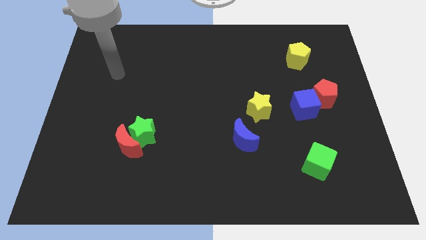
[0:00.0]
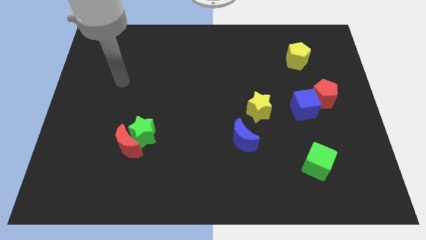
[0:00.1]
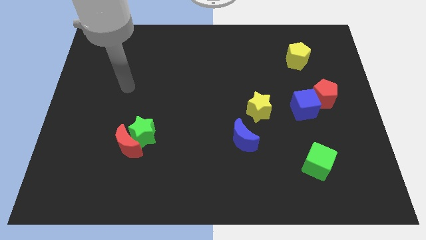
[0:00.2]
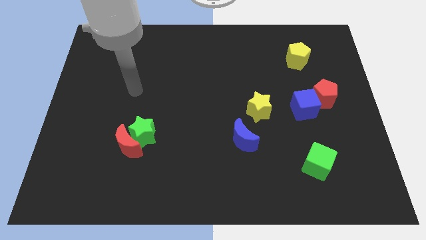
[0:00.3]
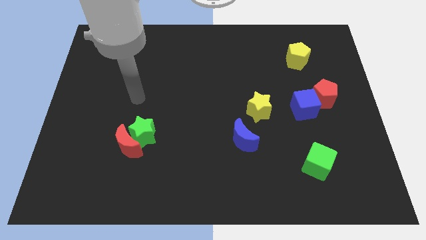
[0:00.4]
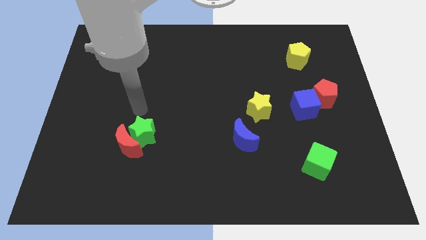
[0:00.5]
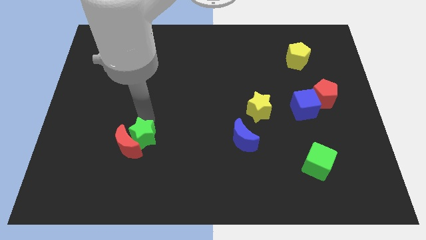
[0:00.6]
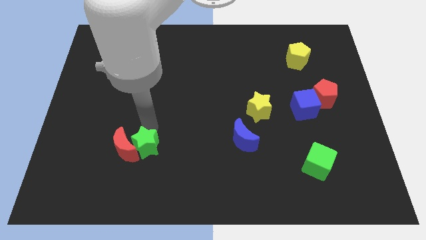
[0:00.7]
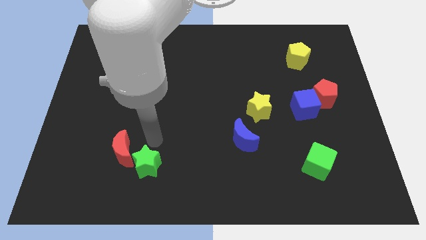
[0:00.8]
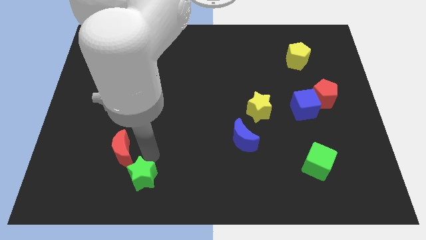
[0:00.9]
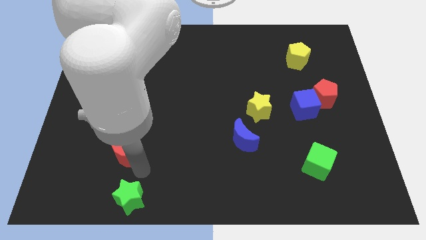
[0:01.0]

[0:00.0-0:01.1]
separate the red moon from the green star

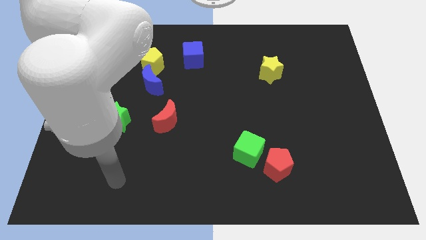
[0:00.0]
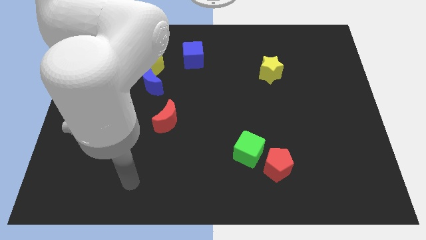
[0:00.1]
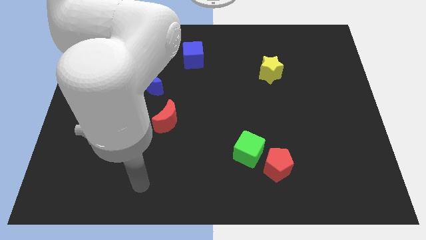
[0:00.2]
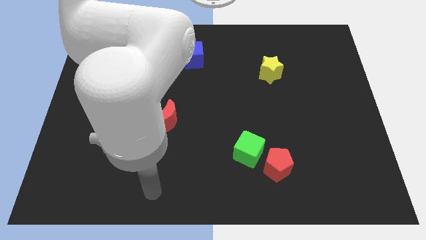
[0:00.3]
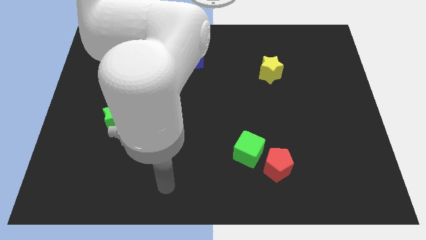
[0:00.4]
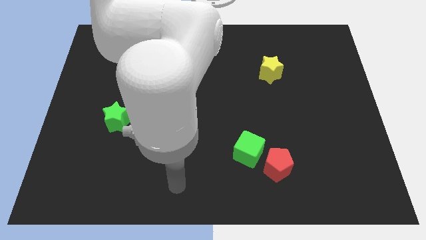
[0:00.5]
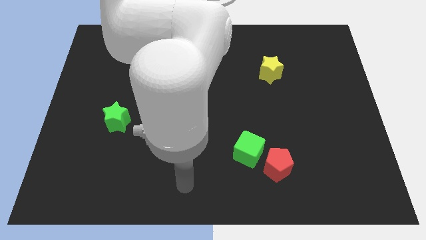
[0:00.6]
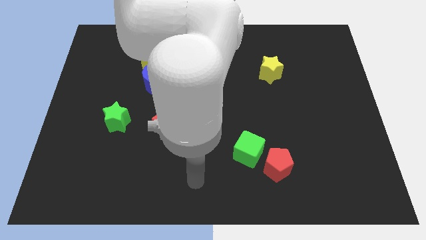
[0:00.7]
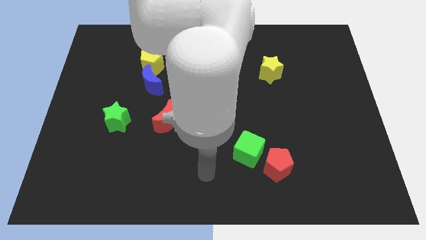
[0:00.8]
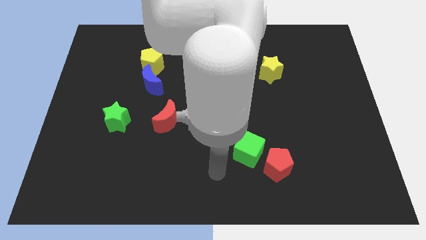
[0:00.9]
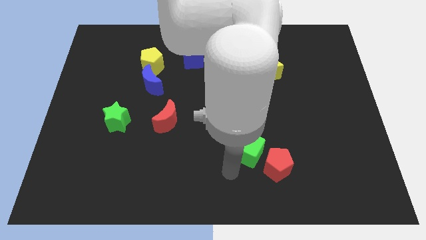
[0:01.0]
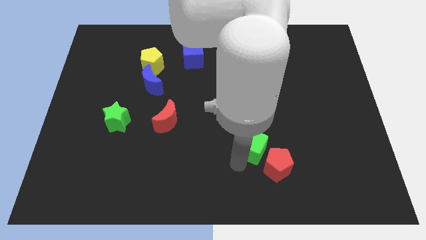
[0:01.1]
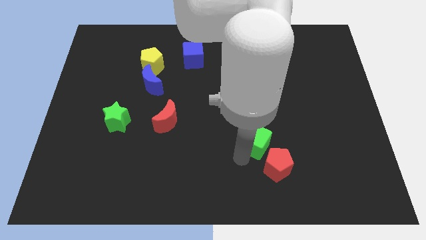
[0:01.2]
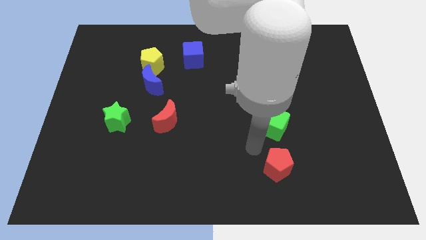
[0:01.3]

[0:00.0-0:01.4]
separate the red pentagon from the green cube

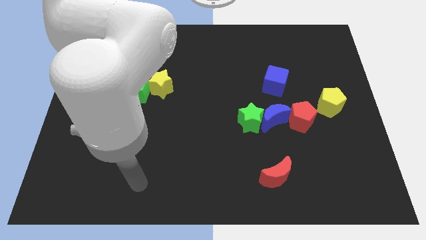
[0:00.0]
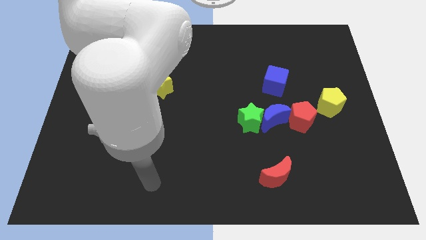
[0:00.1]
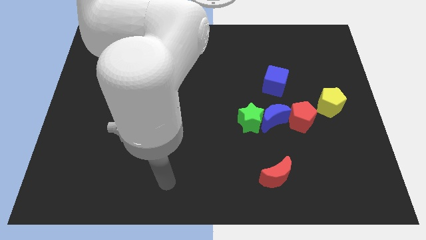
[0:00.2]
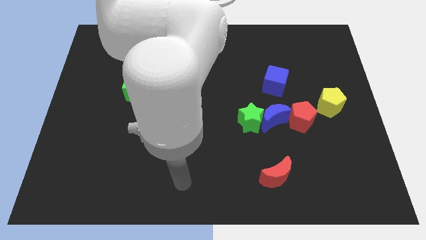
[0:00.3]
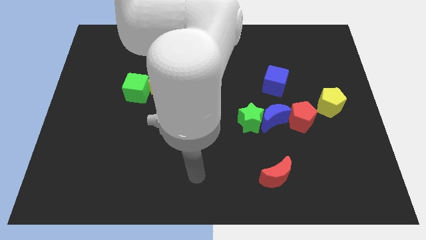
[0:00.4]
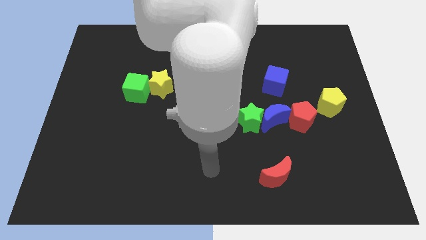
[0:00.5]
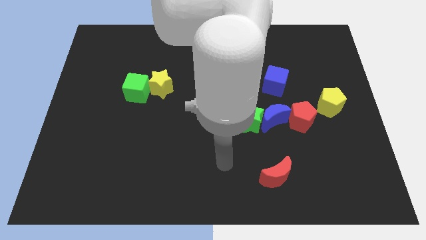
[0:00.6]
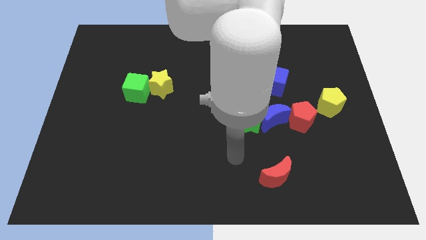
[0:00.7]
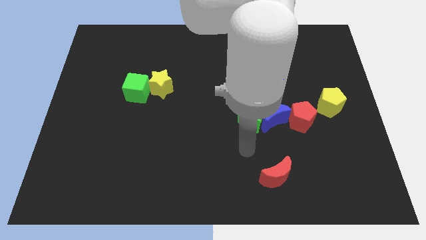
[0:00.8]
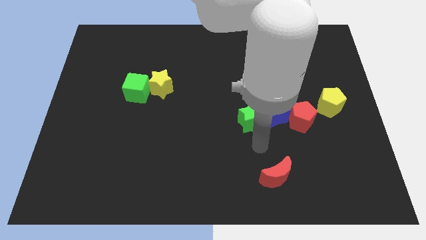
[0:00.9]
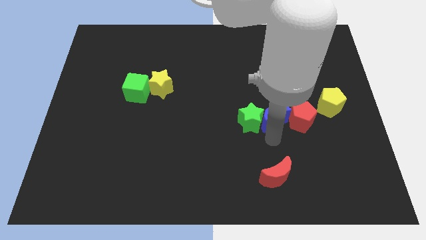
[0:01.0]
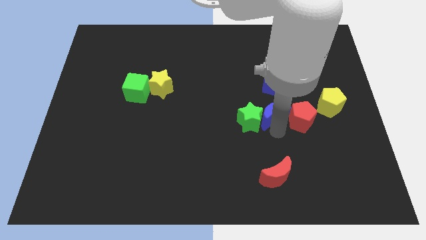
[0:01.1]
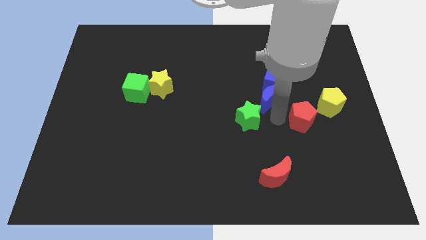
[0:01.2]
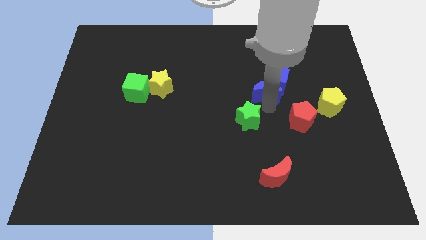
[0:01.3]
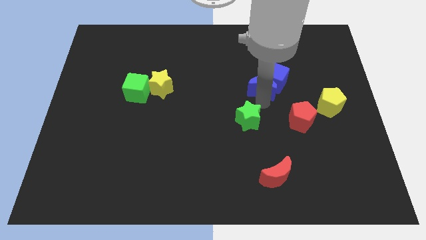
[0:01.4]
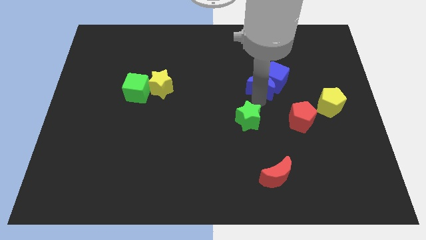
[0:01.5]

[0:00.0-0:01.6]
pull the green star apart from the blue moon

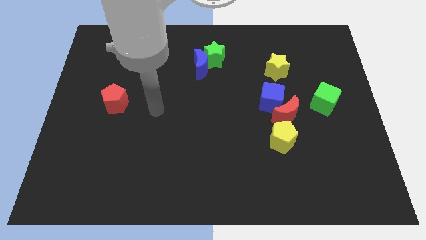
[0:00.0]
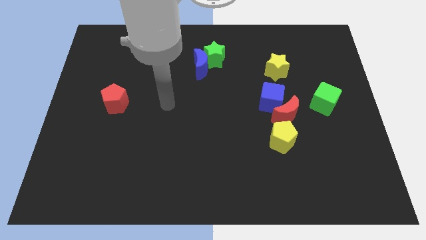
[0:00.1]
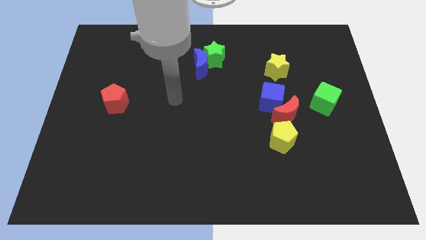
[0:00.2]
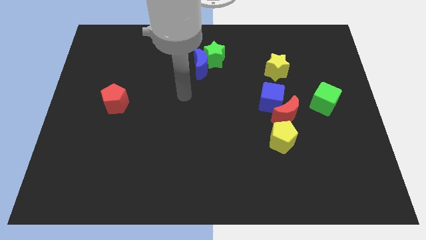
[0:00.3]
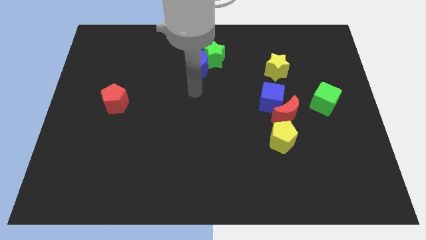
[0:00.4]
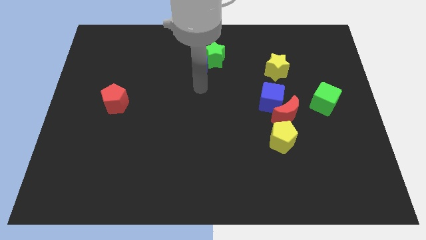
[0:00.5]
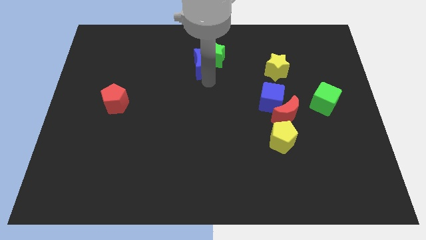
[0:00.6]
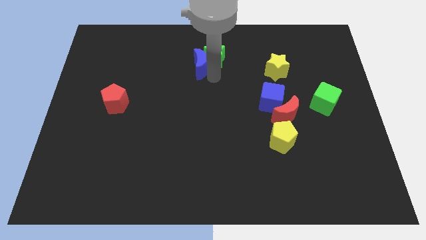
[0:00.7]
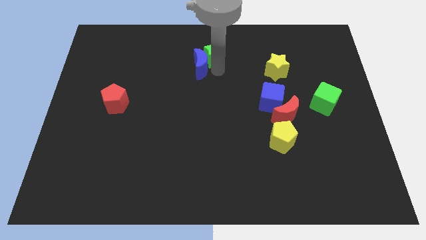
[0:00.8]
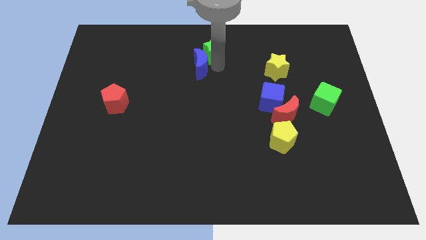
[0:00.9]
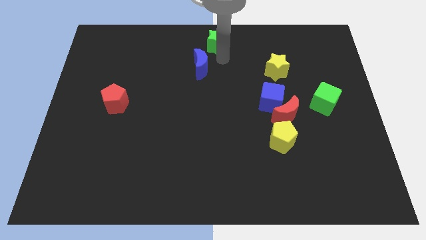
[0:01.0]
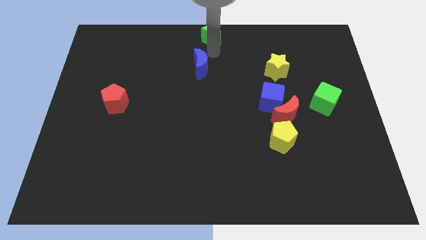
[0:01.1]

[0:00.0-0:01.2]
pull the blue moon apart from the green star

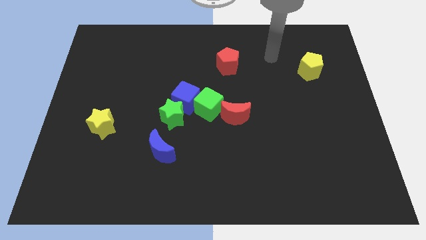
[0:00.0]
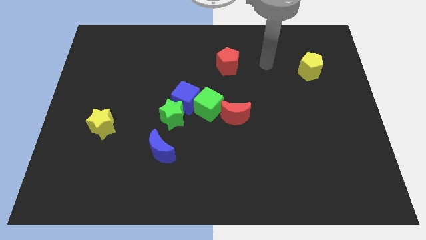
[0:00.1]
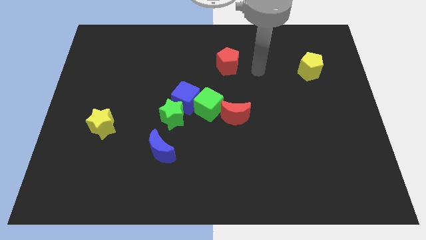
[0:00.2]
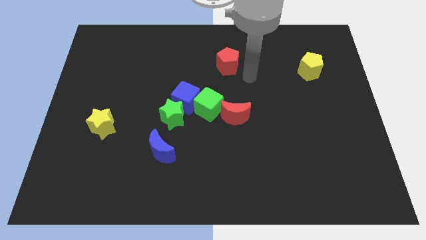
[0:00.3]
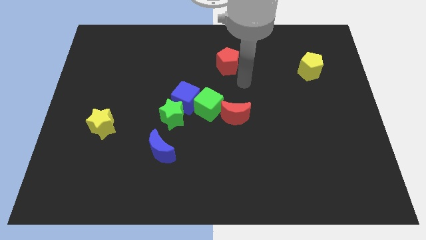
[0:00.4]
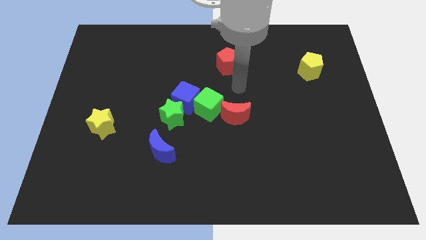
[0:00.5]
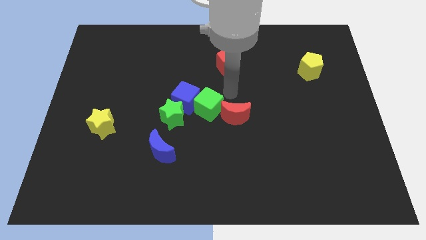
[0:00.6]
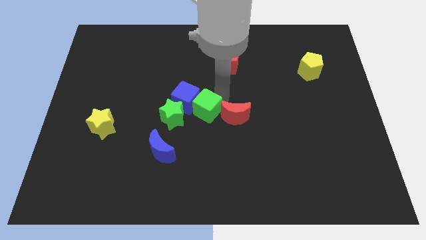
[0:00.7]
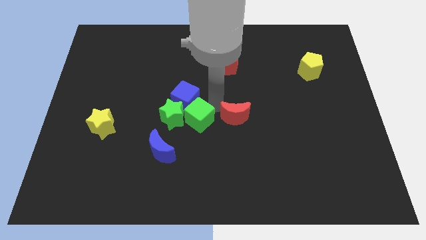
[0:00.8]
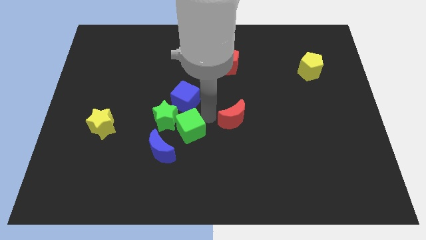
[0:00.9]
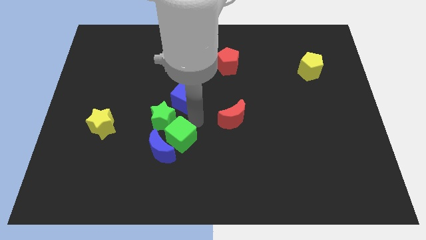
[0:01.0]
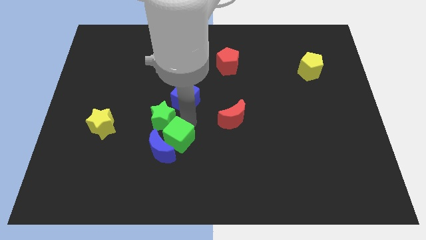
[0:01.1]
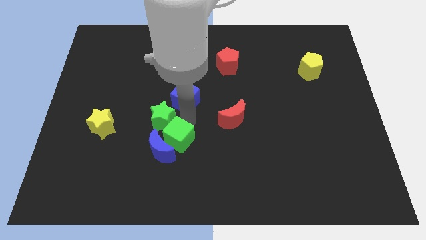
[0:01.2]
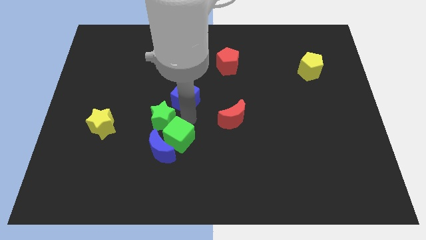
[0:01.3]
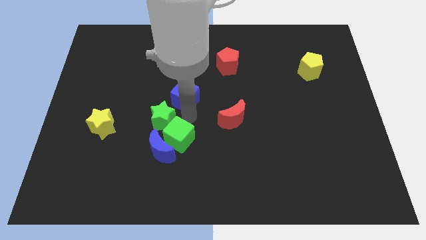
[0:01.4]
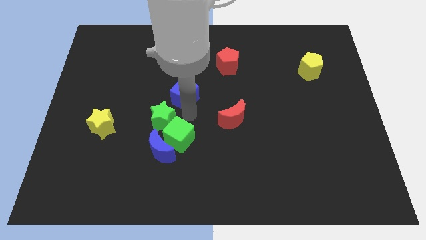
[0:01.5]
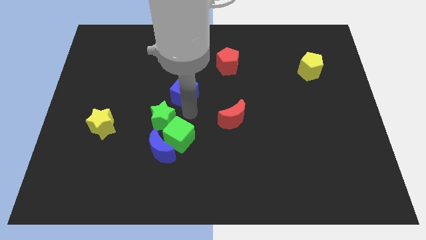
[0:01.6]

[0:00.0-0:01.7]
pull the blue cube apart from the green cube and green star

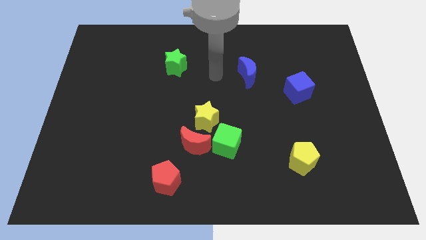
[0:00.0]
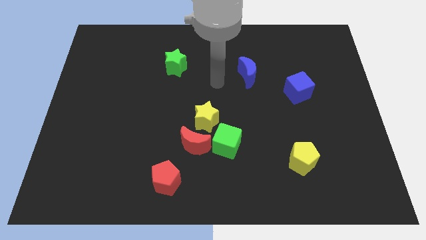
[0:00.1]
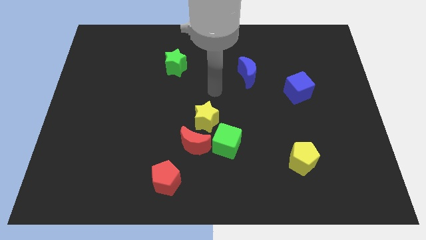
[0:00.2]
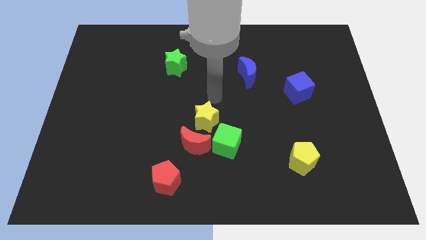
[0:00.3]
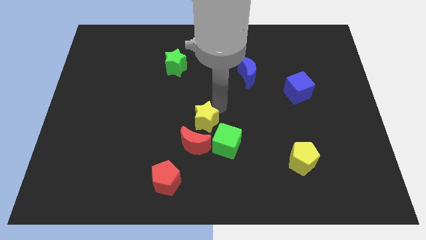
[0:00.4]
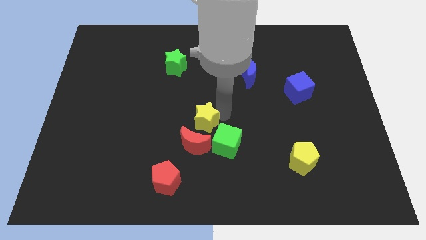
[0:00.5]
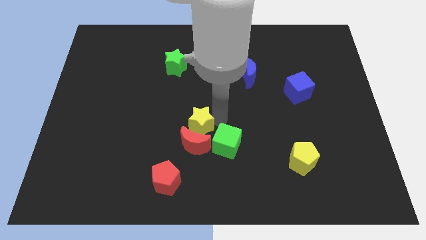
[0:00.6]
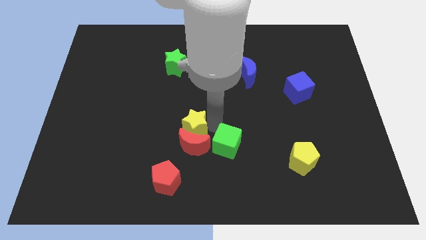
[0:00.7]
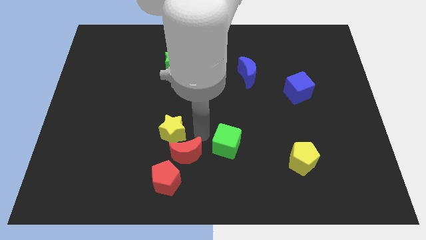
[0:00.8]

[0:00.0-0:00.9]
separate the green cube from the red moon and yellow star

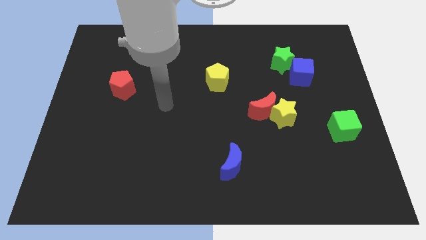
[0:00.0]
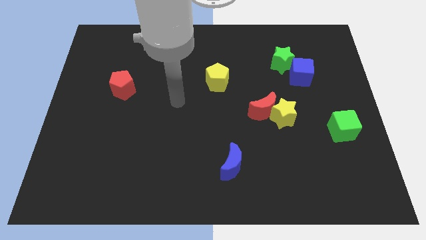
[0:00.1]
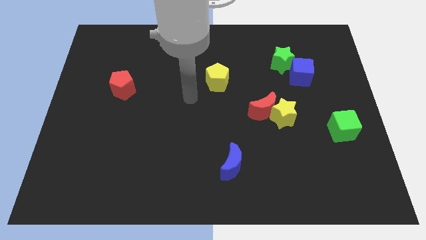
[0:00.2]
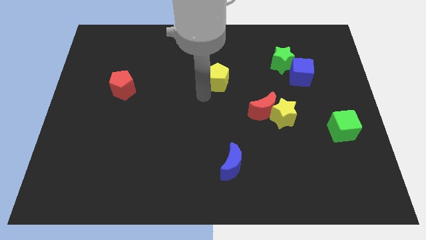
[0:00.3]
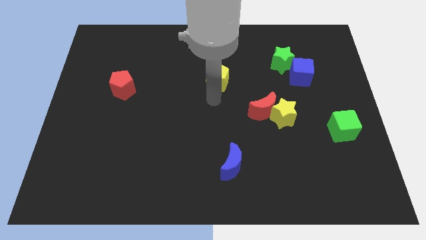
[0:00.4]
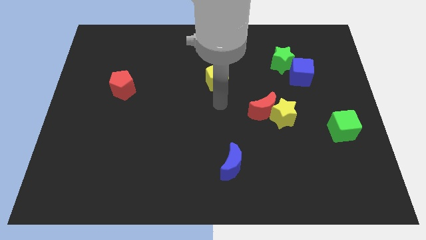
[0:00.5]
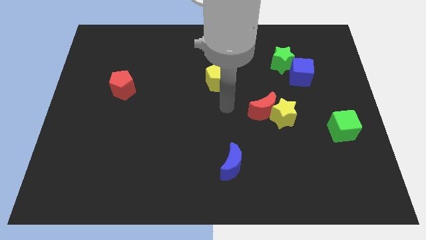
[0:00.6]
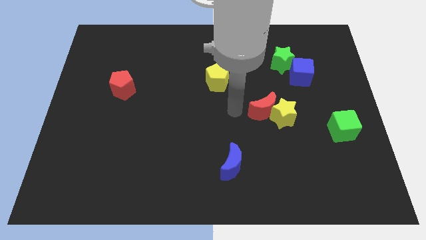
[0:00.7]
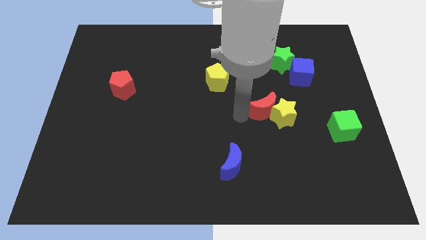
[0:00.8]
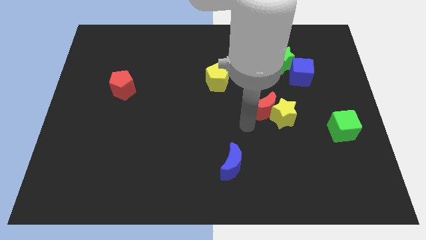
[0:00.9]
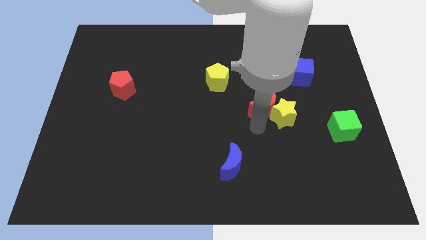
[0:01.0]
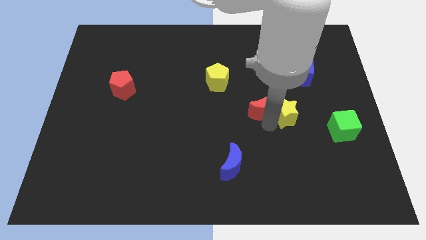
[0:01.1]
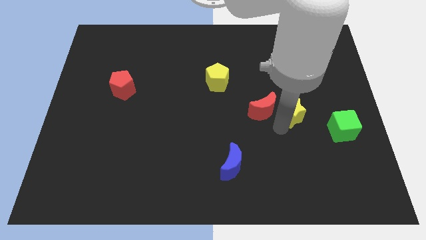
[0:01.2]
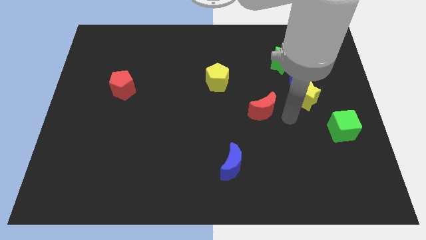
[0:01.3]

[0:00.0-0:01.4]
separate the red moon from the yellow star

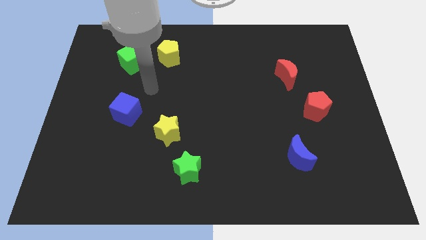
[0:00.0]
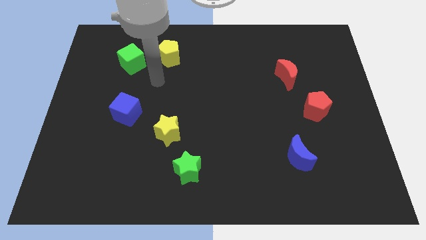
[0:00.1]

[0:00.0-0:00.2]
separate the green cube from the yellow pentagon
